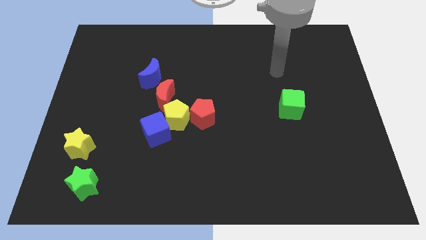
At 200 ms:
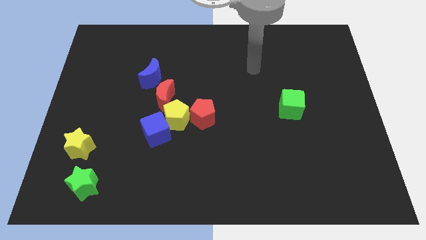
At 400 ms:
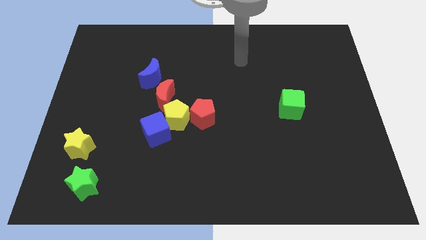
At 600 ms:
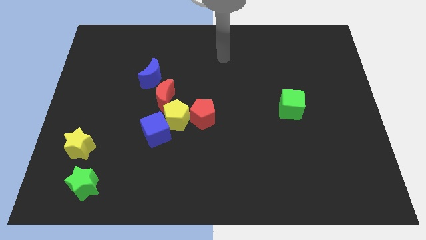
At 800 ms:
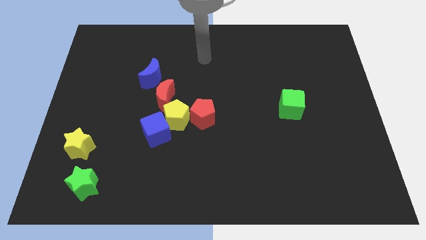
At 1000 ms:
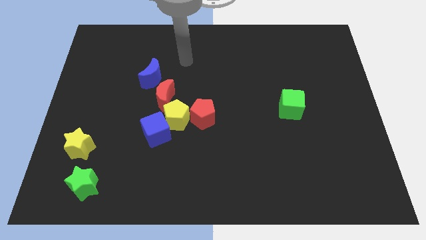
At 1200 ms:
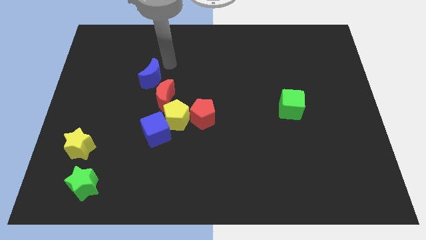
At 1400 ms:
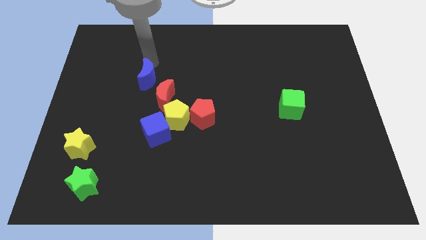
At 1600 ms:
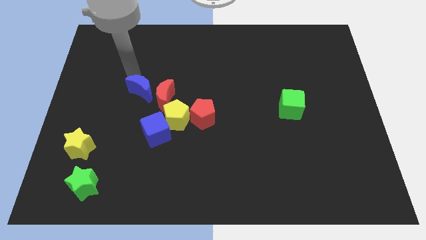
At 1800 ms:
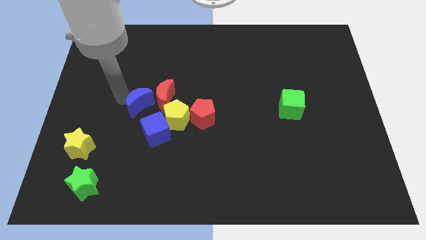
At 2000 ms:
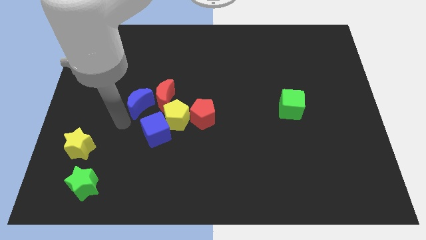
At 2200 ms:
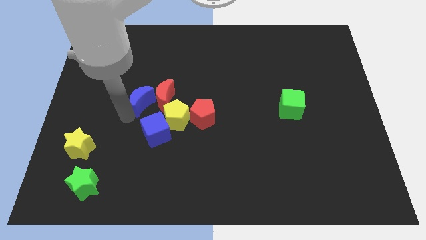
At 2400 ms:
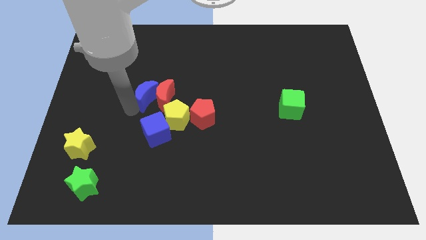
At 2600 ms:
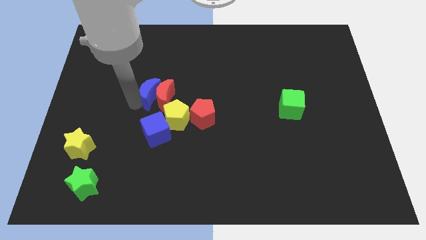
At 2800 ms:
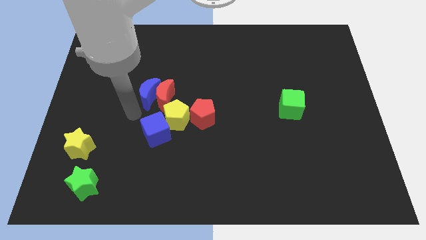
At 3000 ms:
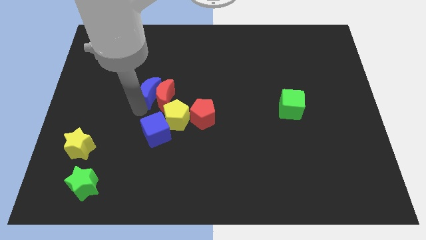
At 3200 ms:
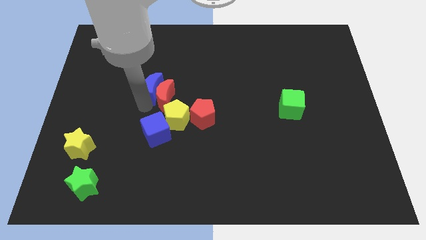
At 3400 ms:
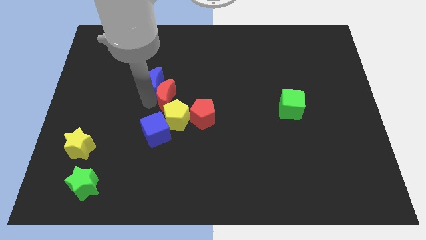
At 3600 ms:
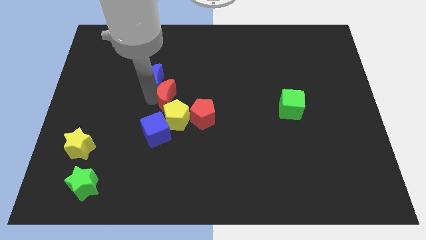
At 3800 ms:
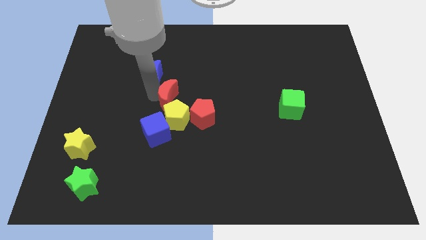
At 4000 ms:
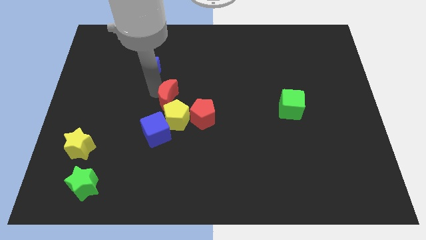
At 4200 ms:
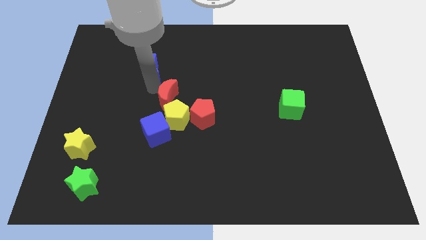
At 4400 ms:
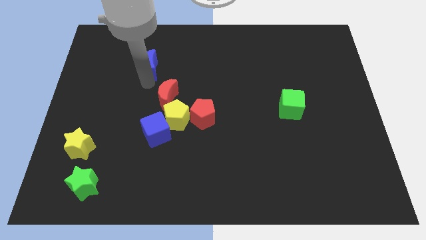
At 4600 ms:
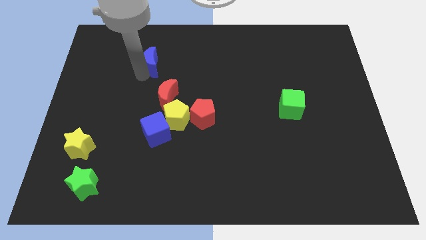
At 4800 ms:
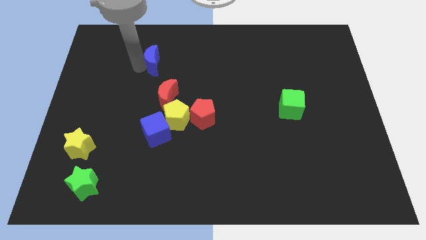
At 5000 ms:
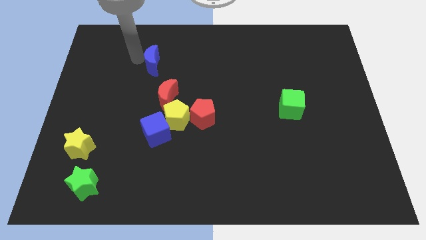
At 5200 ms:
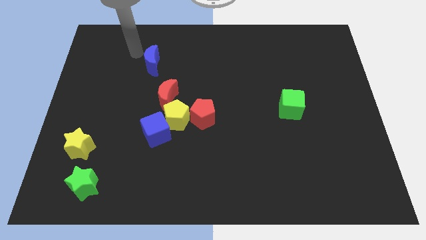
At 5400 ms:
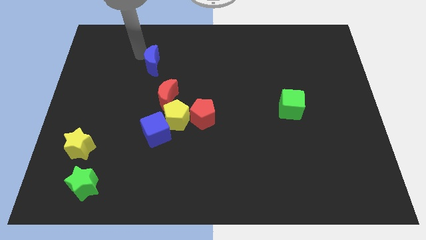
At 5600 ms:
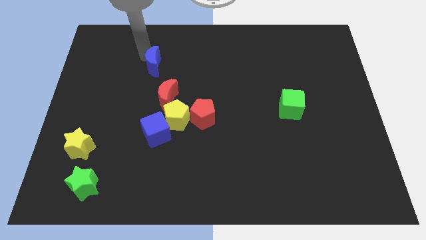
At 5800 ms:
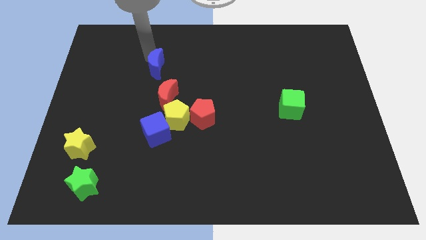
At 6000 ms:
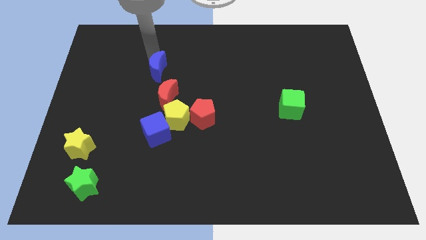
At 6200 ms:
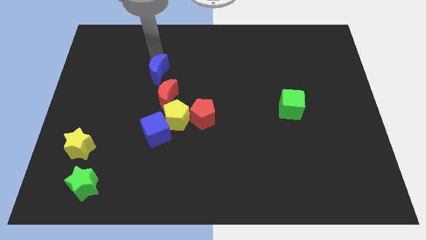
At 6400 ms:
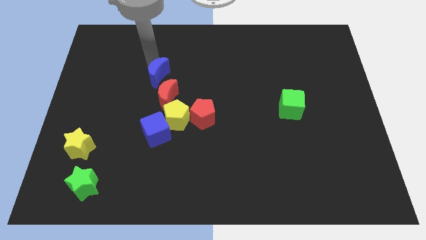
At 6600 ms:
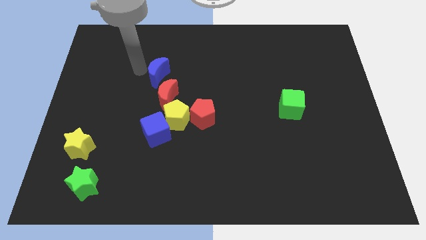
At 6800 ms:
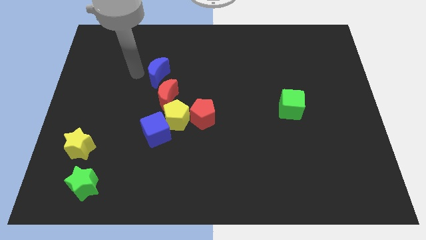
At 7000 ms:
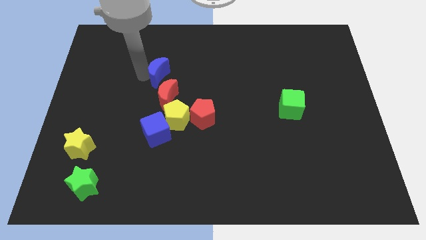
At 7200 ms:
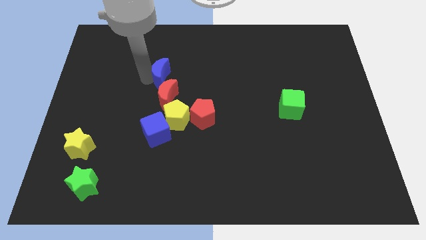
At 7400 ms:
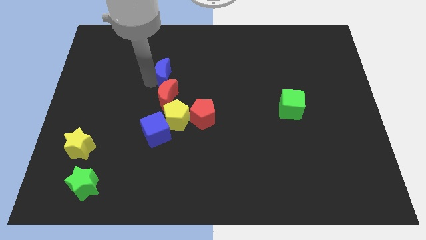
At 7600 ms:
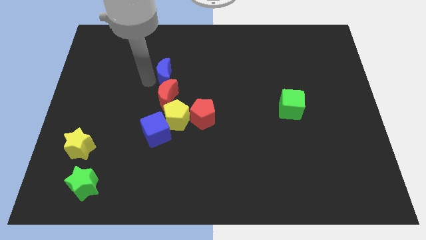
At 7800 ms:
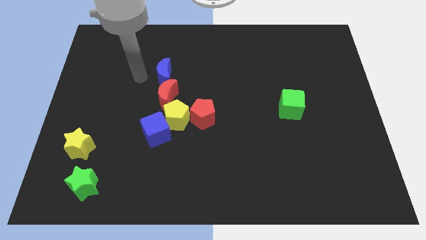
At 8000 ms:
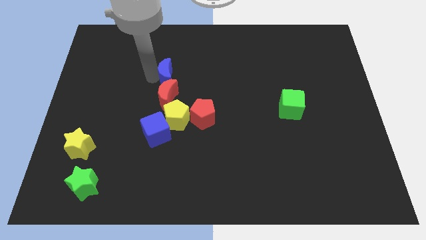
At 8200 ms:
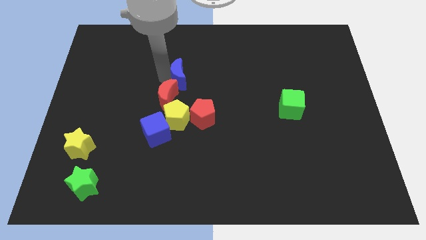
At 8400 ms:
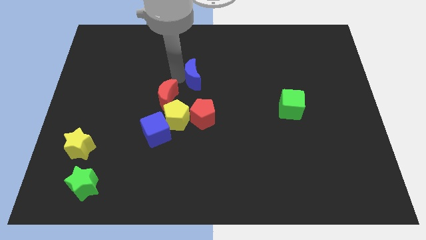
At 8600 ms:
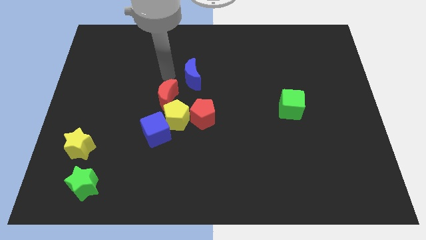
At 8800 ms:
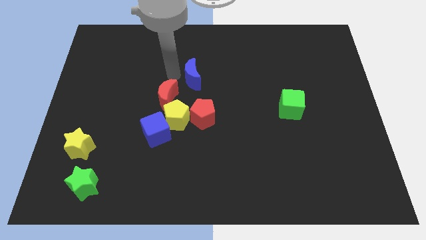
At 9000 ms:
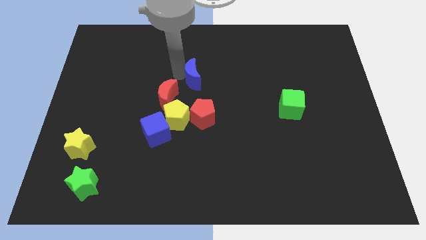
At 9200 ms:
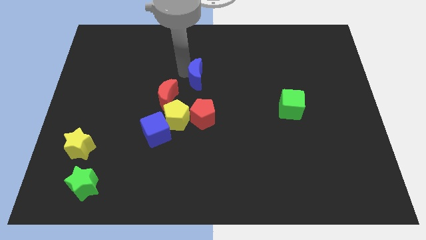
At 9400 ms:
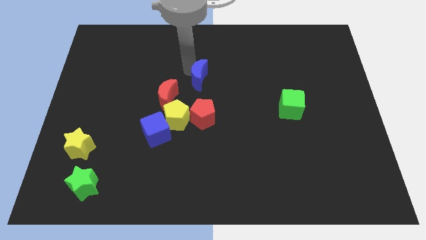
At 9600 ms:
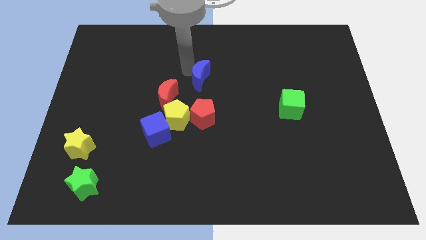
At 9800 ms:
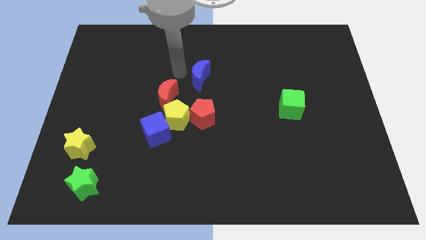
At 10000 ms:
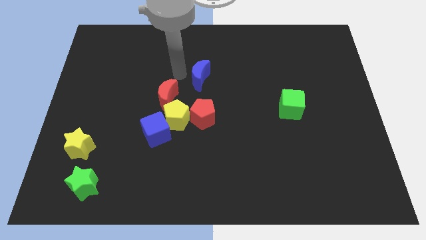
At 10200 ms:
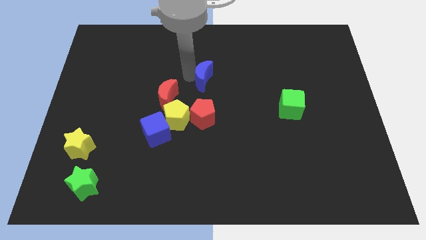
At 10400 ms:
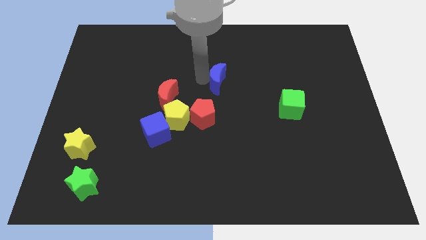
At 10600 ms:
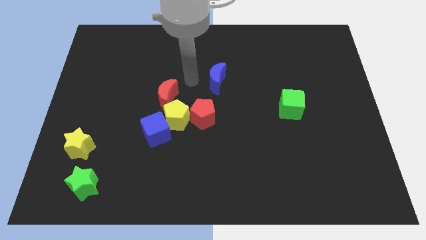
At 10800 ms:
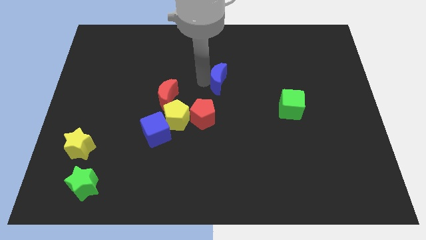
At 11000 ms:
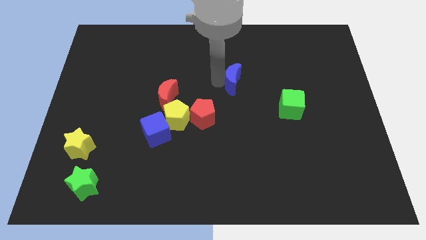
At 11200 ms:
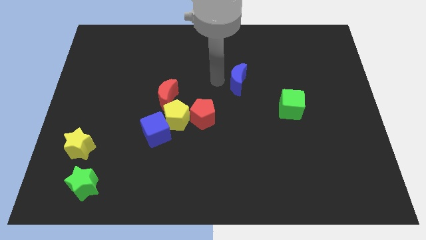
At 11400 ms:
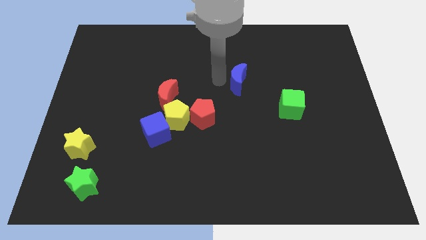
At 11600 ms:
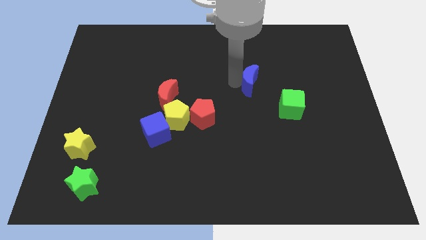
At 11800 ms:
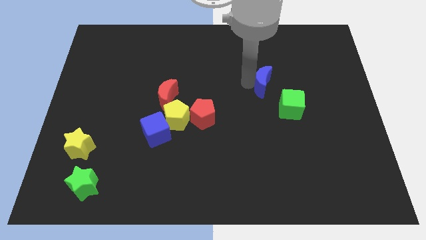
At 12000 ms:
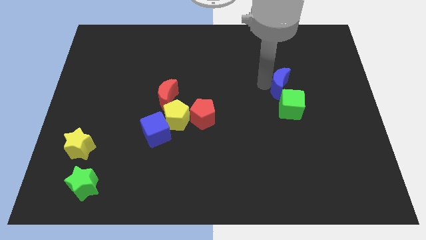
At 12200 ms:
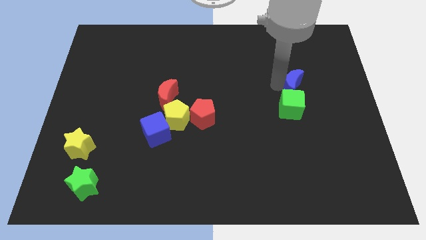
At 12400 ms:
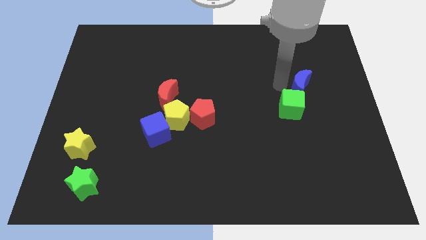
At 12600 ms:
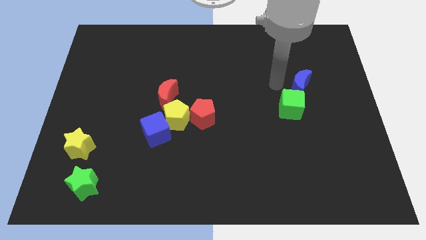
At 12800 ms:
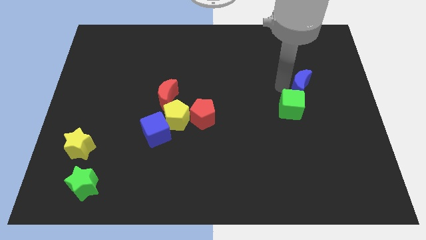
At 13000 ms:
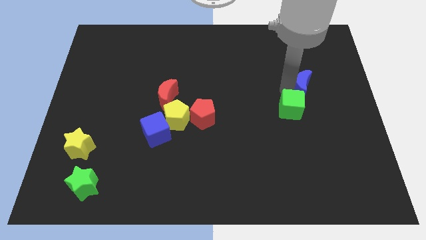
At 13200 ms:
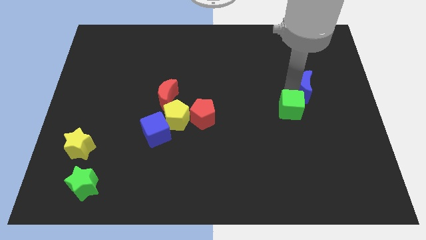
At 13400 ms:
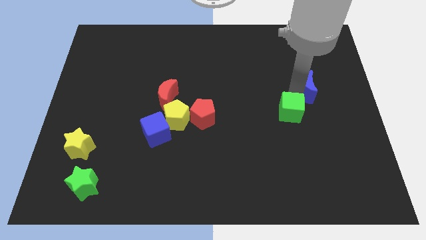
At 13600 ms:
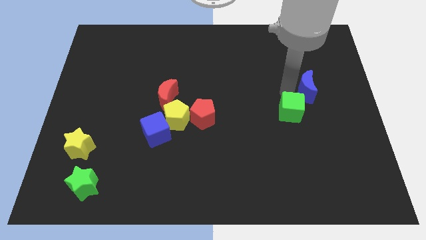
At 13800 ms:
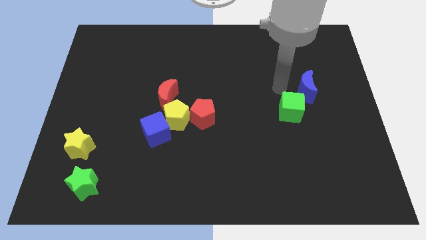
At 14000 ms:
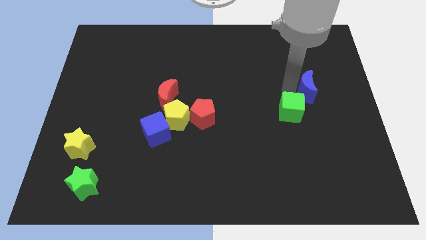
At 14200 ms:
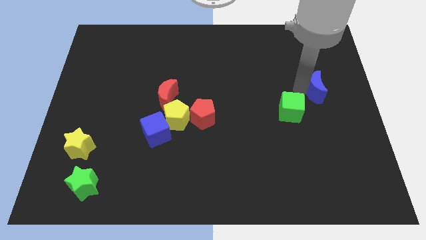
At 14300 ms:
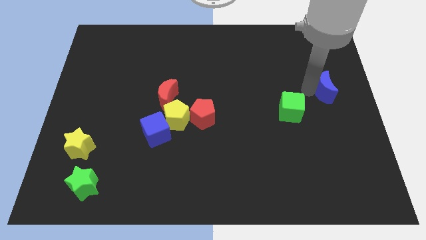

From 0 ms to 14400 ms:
push the blue moon to the right side of the board
